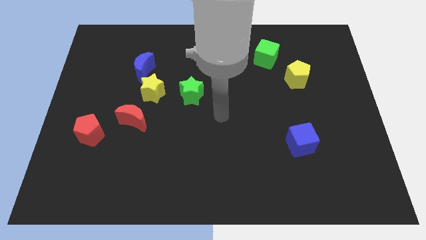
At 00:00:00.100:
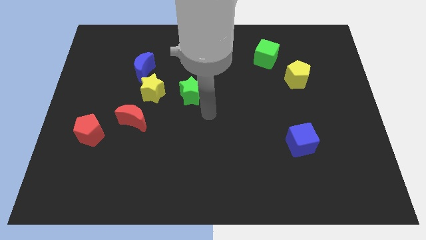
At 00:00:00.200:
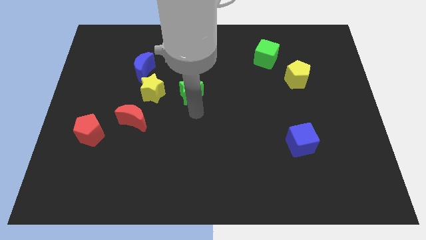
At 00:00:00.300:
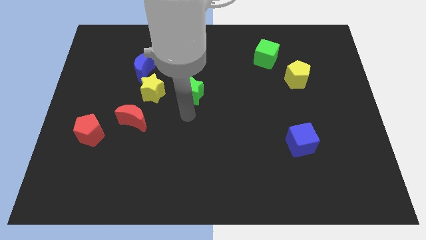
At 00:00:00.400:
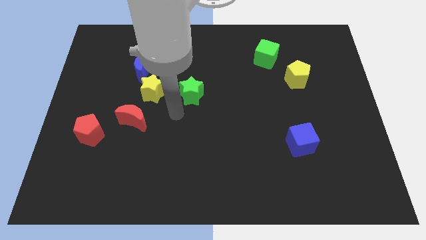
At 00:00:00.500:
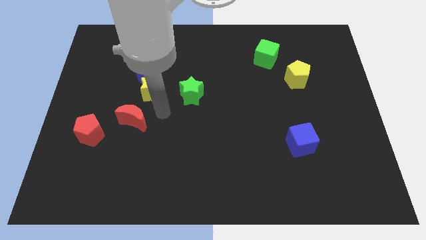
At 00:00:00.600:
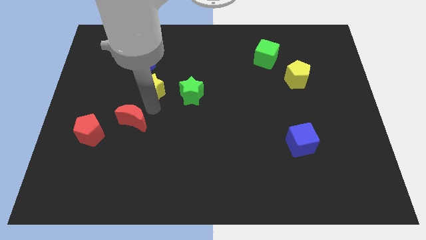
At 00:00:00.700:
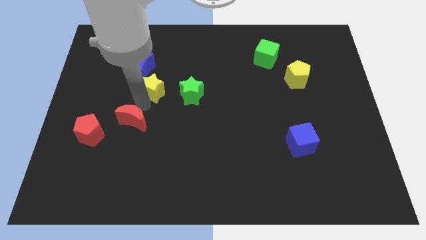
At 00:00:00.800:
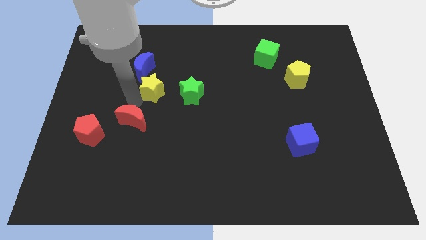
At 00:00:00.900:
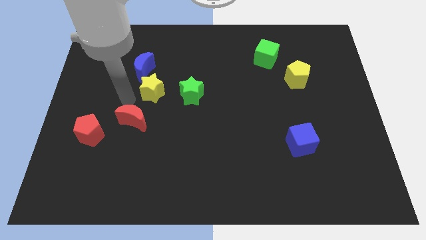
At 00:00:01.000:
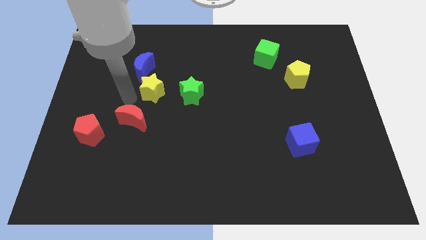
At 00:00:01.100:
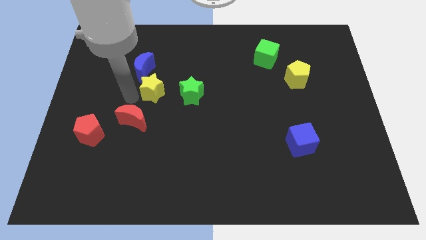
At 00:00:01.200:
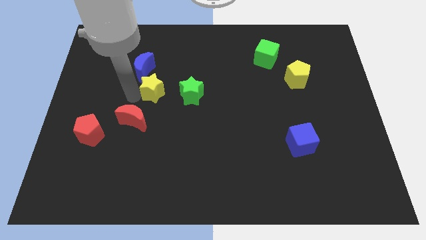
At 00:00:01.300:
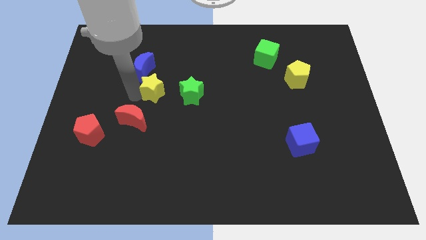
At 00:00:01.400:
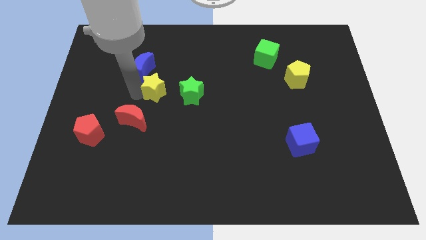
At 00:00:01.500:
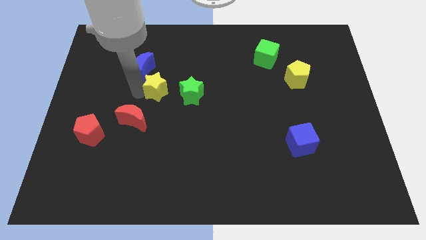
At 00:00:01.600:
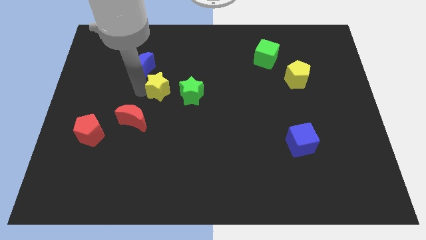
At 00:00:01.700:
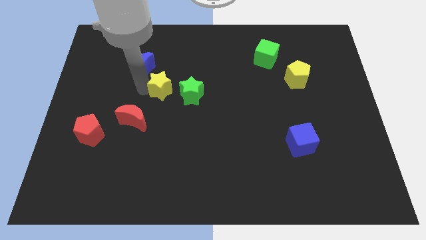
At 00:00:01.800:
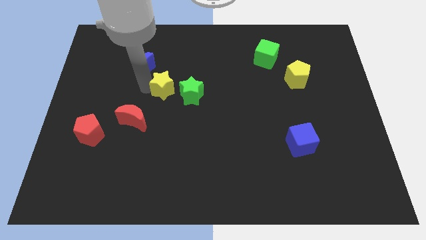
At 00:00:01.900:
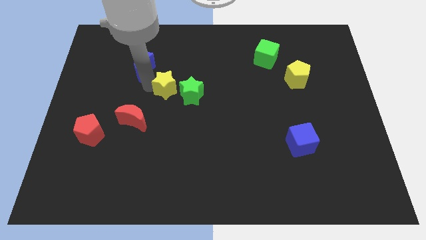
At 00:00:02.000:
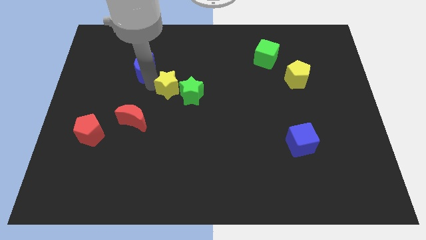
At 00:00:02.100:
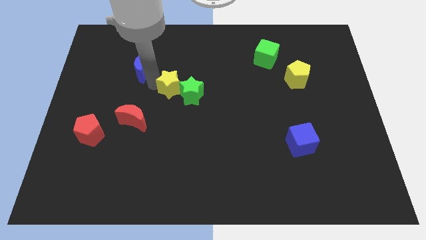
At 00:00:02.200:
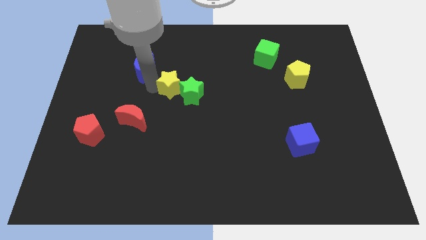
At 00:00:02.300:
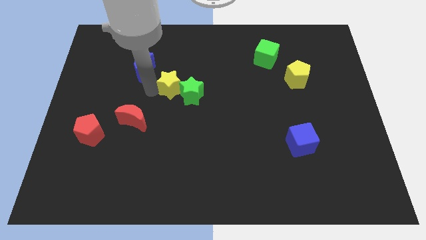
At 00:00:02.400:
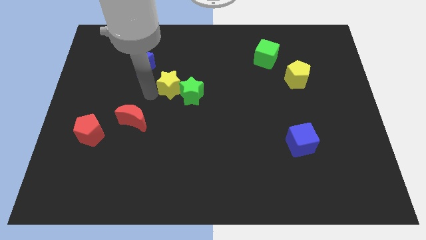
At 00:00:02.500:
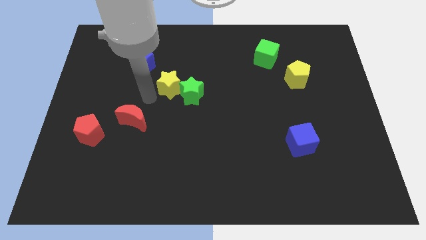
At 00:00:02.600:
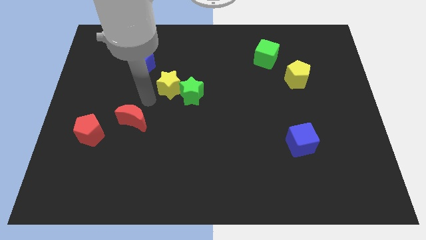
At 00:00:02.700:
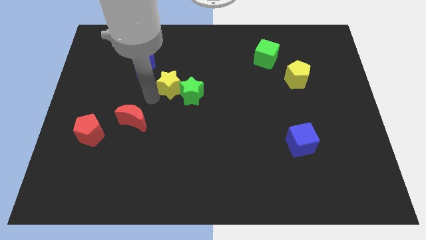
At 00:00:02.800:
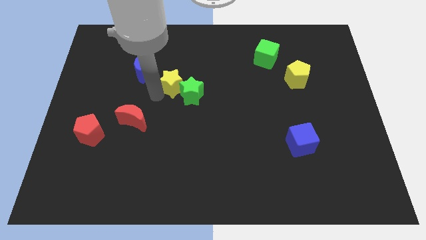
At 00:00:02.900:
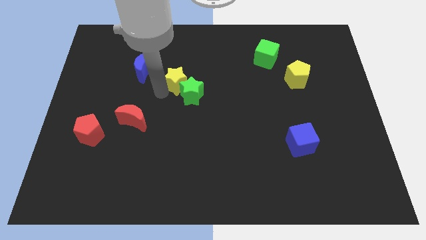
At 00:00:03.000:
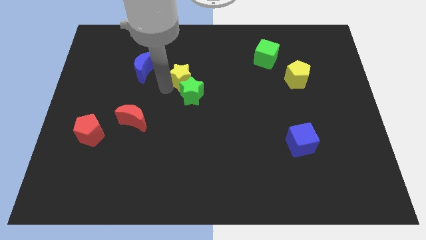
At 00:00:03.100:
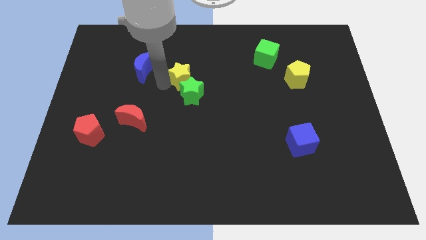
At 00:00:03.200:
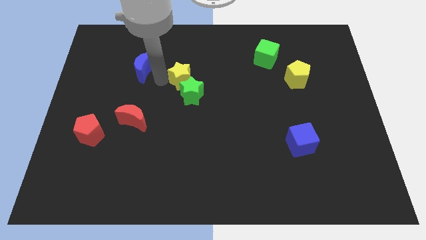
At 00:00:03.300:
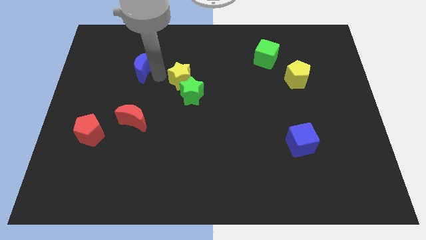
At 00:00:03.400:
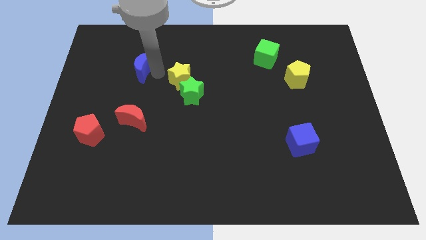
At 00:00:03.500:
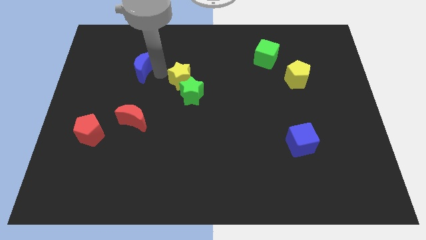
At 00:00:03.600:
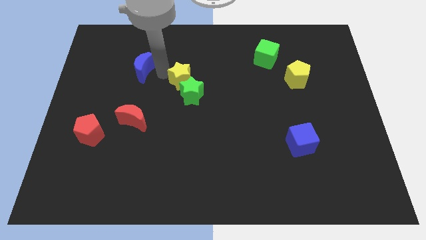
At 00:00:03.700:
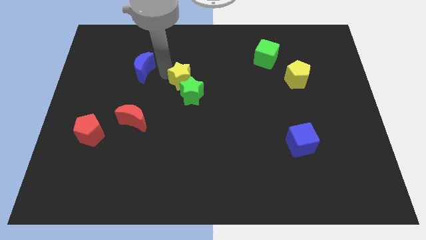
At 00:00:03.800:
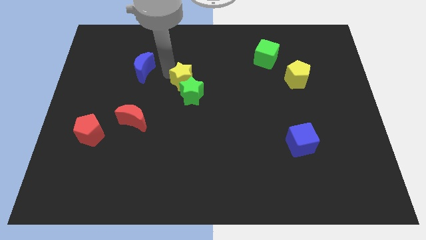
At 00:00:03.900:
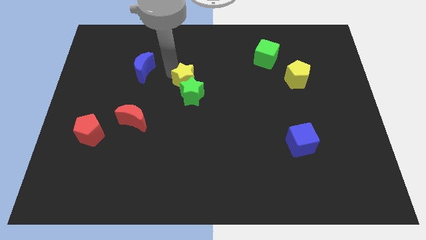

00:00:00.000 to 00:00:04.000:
slightly slide the yellow star to the right

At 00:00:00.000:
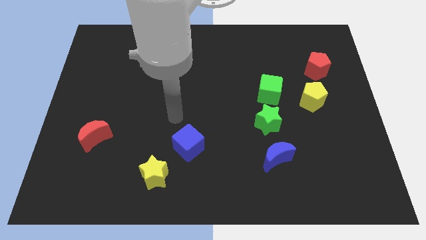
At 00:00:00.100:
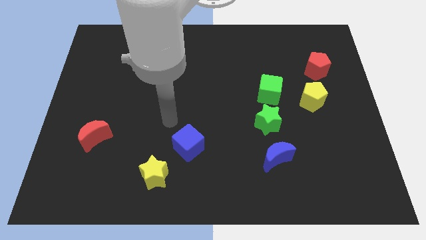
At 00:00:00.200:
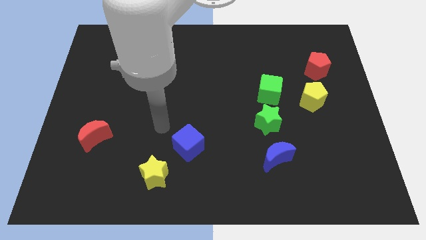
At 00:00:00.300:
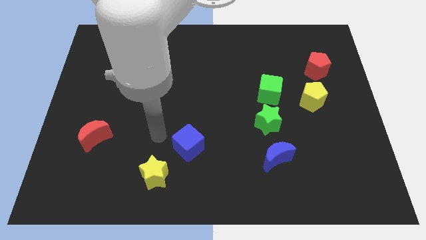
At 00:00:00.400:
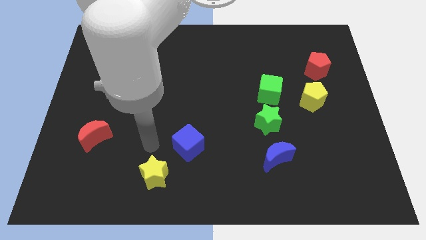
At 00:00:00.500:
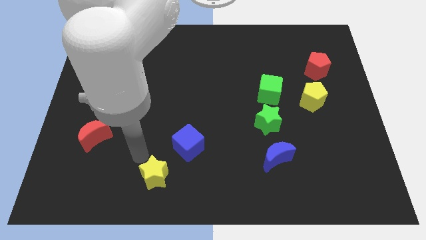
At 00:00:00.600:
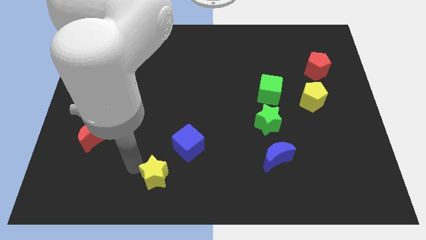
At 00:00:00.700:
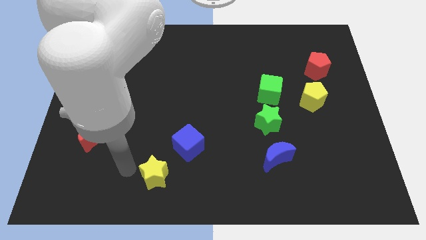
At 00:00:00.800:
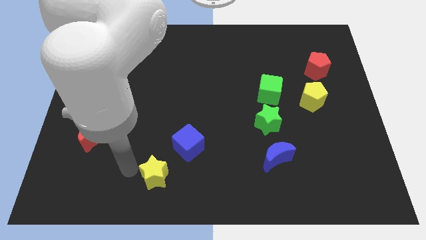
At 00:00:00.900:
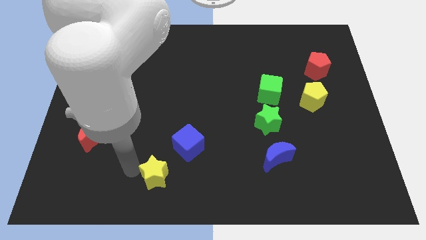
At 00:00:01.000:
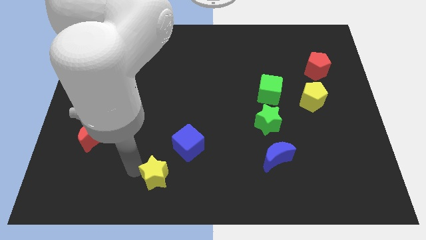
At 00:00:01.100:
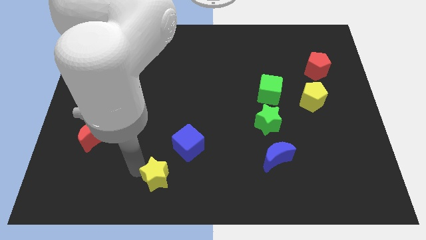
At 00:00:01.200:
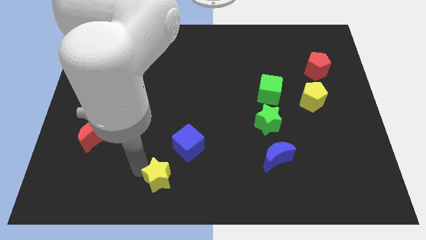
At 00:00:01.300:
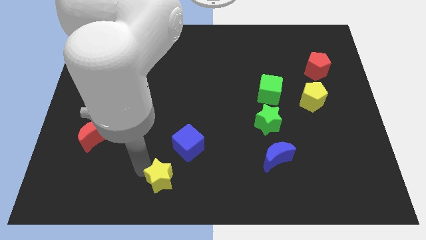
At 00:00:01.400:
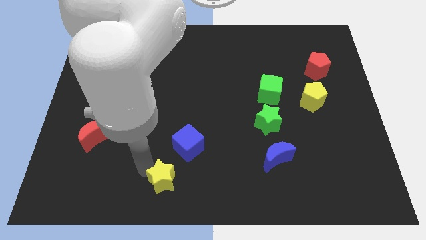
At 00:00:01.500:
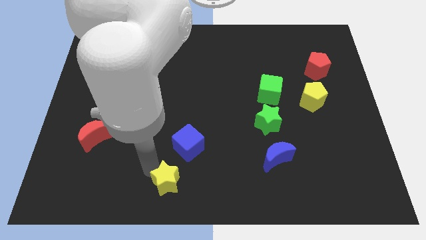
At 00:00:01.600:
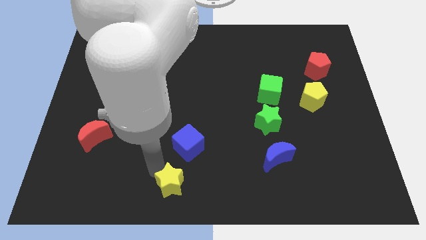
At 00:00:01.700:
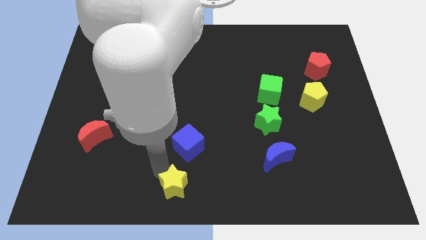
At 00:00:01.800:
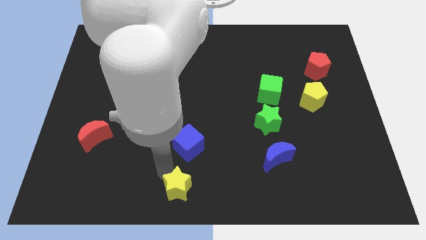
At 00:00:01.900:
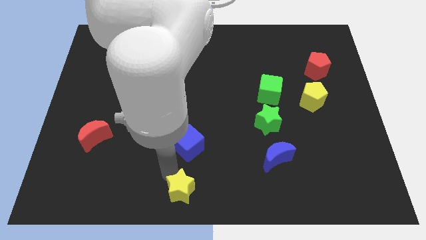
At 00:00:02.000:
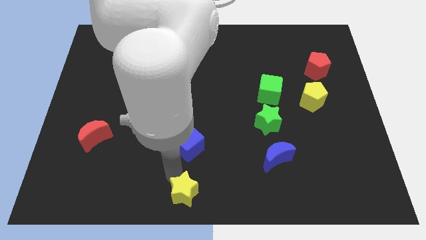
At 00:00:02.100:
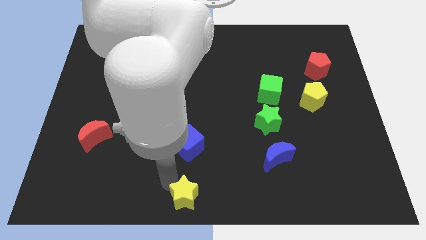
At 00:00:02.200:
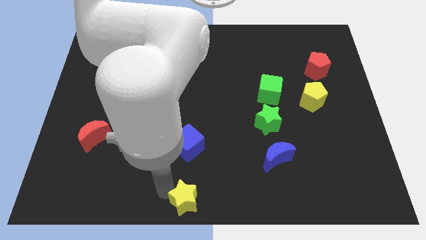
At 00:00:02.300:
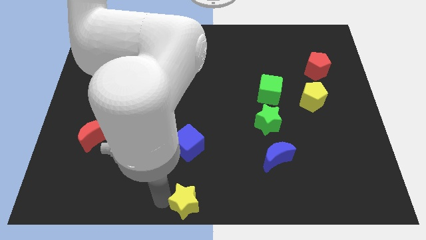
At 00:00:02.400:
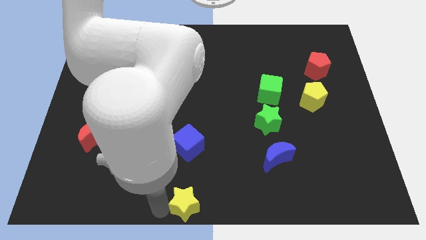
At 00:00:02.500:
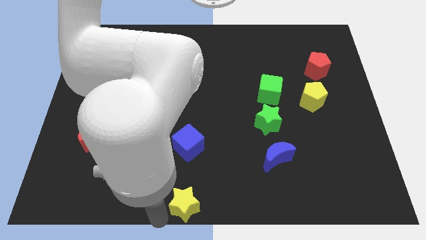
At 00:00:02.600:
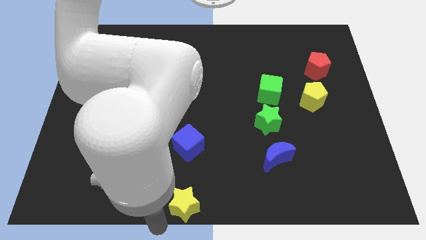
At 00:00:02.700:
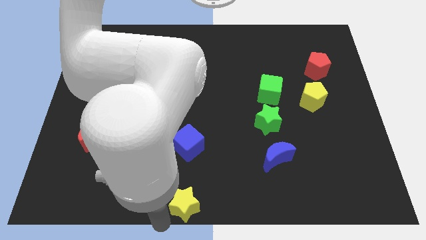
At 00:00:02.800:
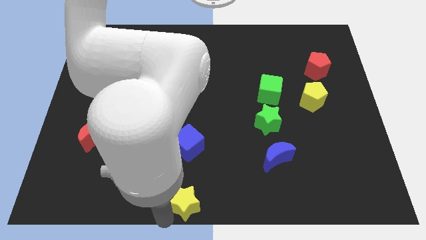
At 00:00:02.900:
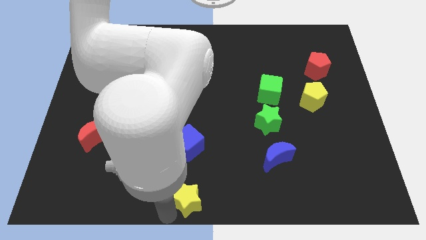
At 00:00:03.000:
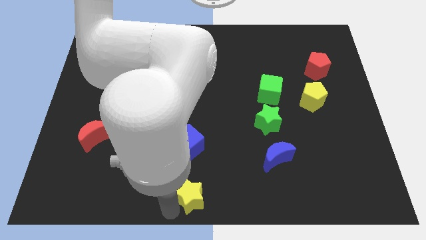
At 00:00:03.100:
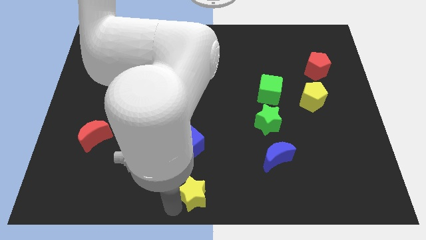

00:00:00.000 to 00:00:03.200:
push the yellow star right a little

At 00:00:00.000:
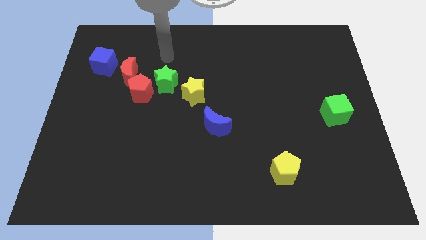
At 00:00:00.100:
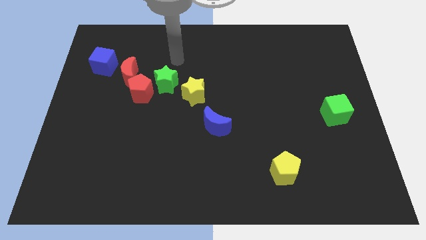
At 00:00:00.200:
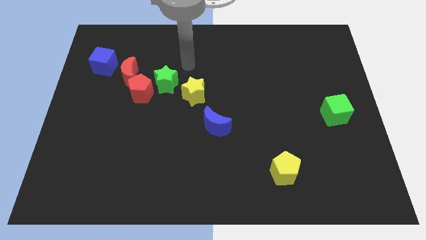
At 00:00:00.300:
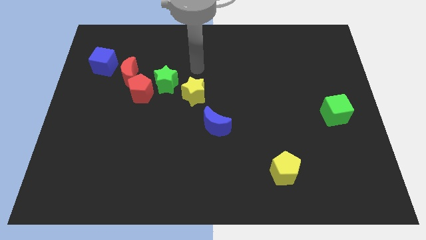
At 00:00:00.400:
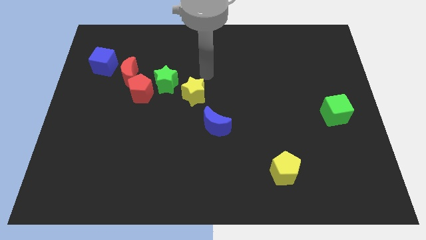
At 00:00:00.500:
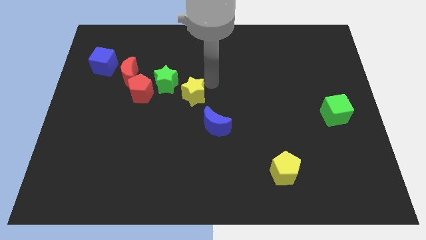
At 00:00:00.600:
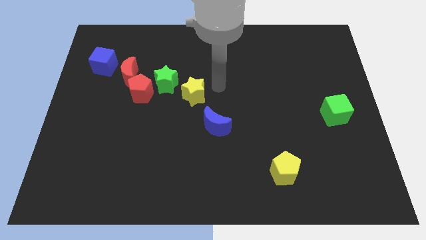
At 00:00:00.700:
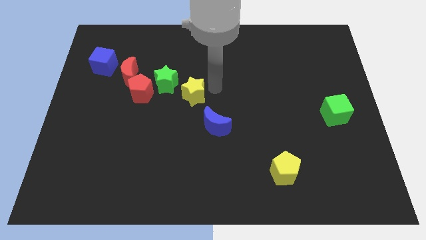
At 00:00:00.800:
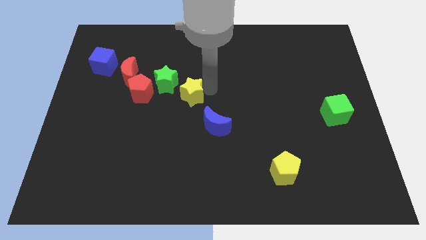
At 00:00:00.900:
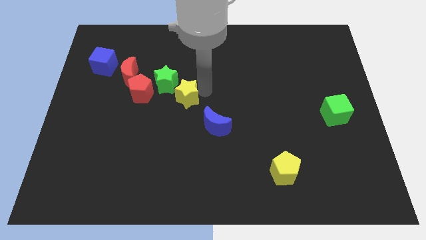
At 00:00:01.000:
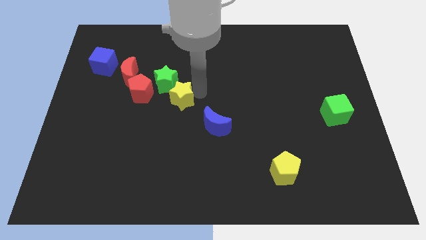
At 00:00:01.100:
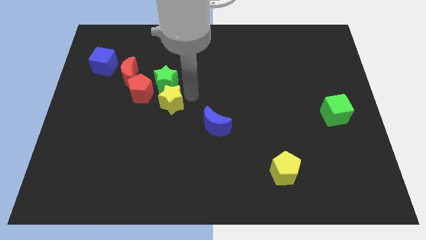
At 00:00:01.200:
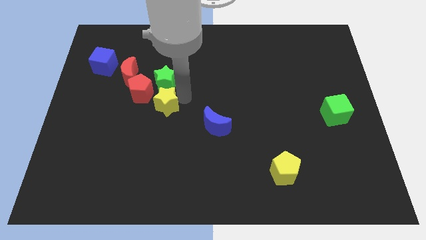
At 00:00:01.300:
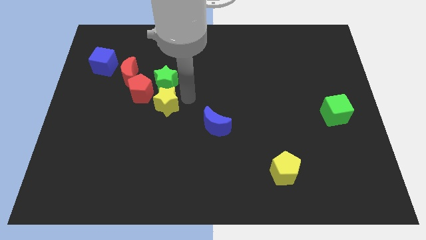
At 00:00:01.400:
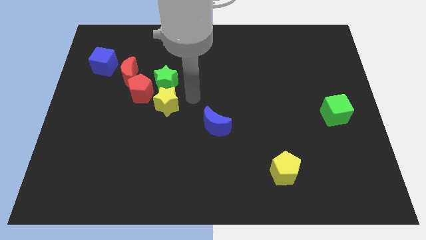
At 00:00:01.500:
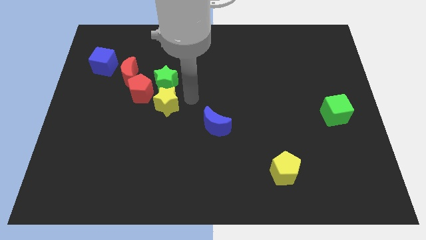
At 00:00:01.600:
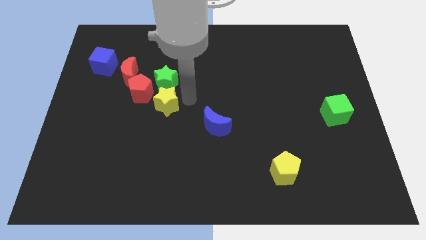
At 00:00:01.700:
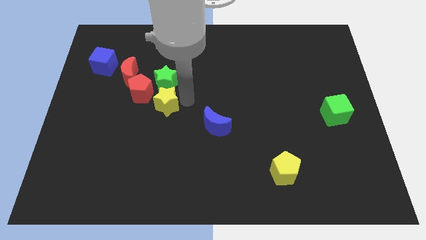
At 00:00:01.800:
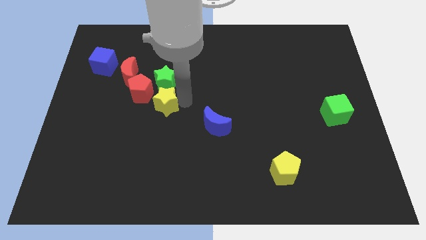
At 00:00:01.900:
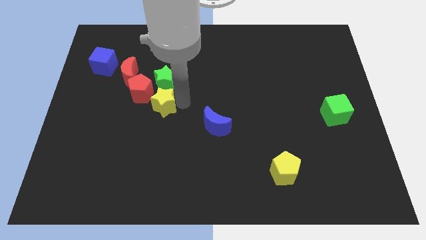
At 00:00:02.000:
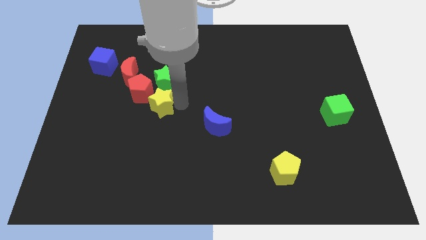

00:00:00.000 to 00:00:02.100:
move the yellow star slightly left
